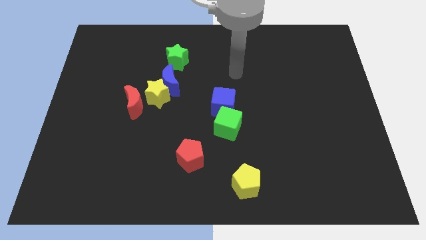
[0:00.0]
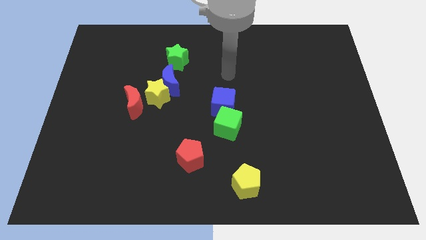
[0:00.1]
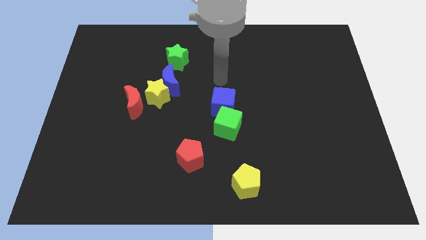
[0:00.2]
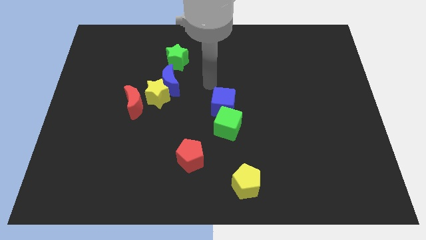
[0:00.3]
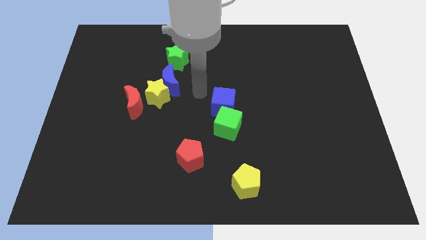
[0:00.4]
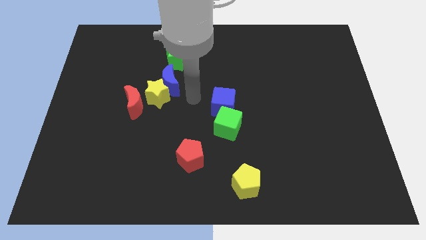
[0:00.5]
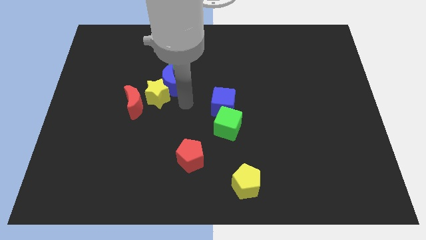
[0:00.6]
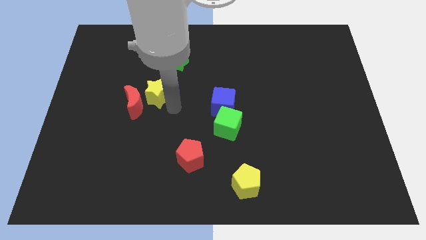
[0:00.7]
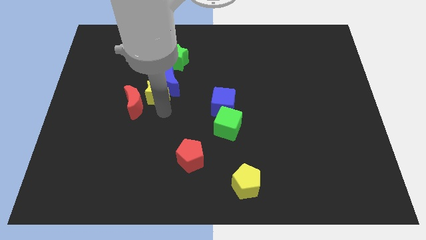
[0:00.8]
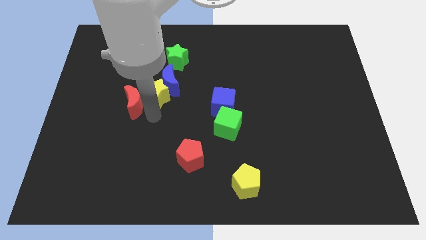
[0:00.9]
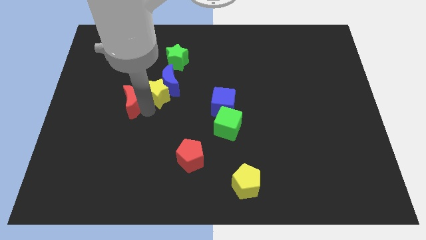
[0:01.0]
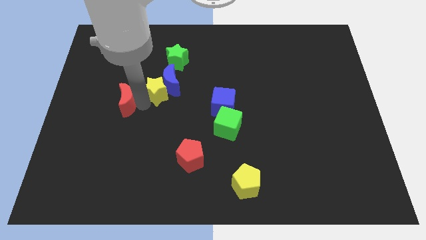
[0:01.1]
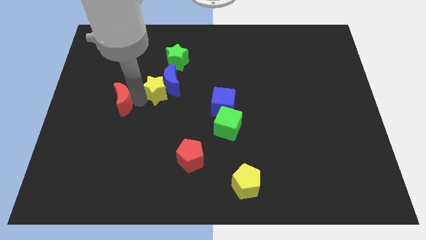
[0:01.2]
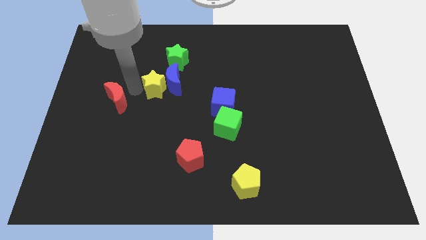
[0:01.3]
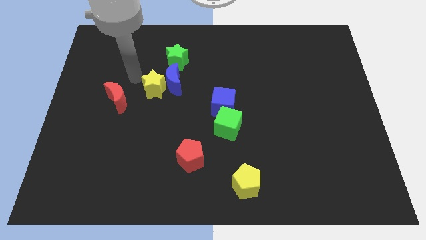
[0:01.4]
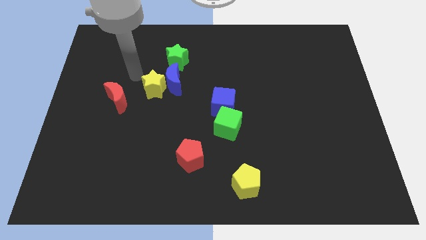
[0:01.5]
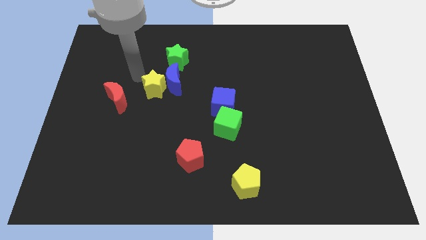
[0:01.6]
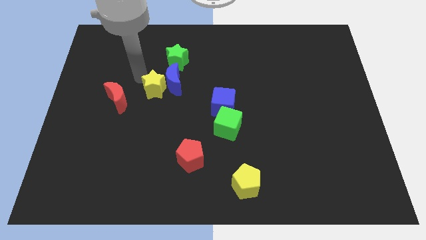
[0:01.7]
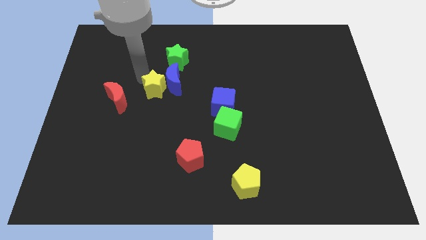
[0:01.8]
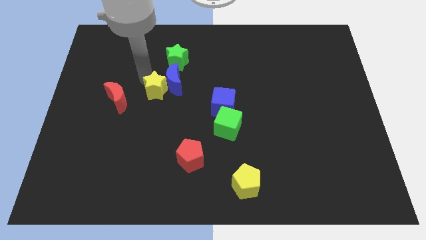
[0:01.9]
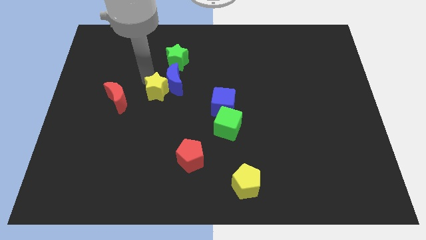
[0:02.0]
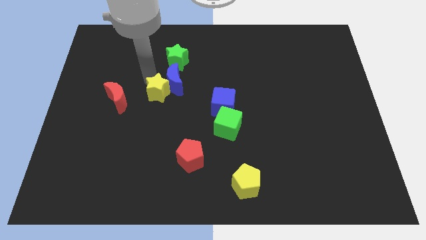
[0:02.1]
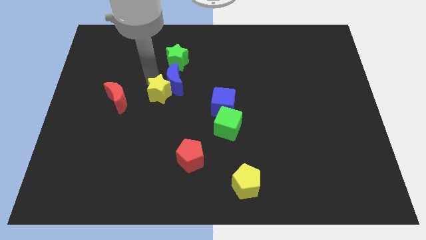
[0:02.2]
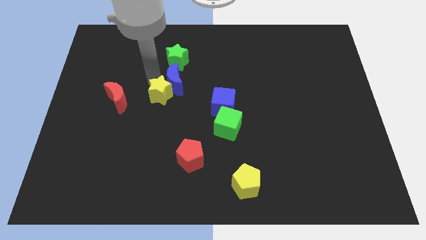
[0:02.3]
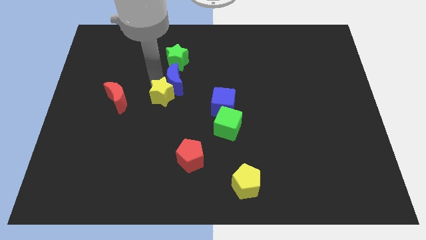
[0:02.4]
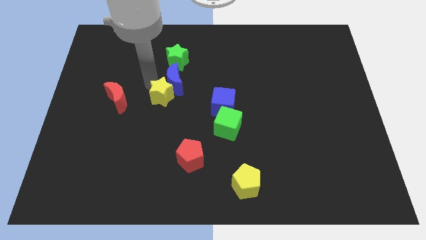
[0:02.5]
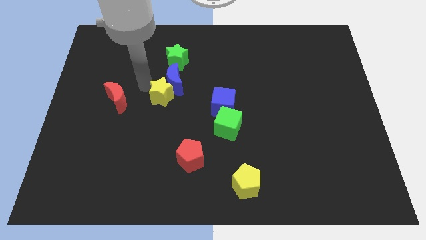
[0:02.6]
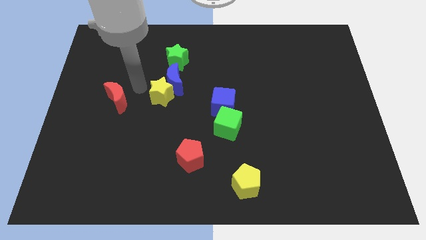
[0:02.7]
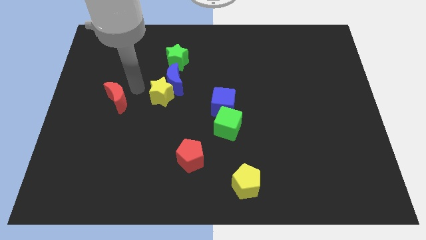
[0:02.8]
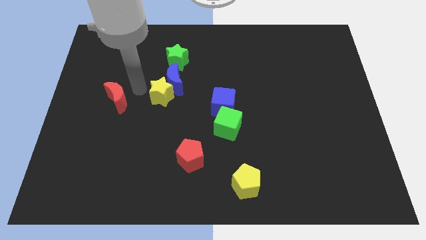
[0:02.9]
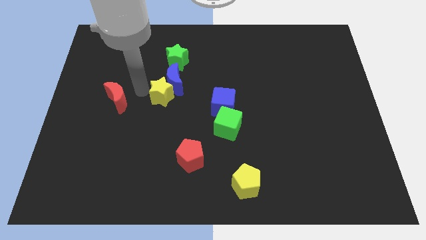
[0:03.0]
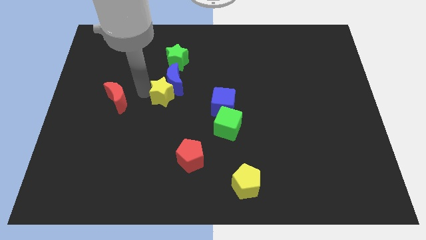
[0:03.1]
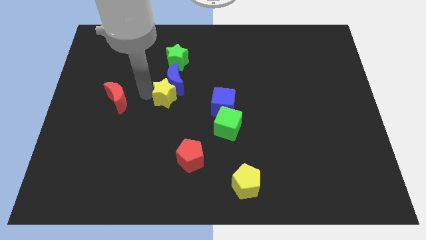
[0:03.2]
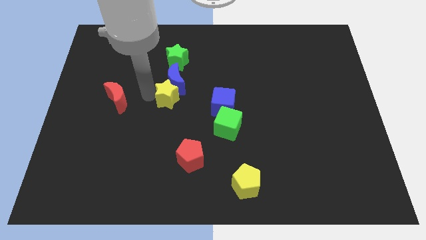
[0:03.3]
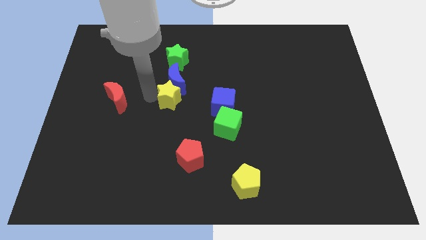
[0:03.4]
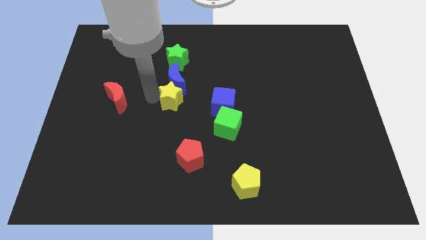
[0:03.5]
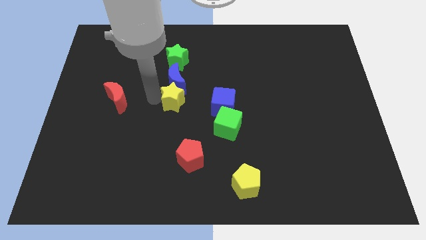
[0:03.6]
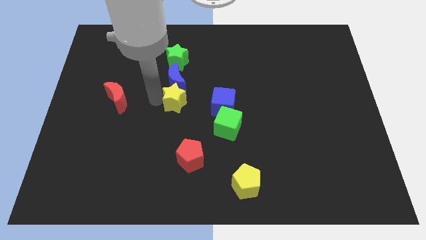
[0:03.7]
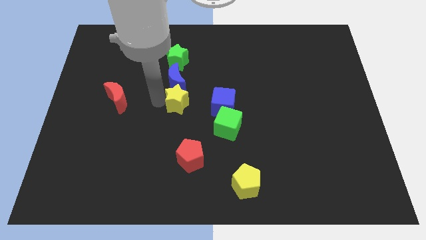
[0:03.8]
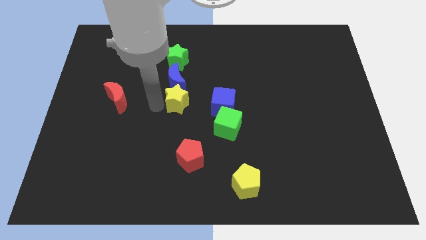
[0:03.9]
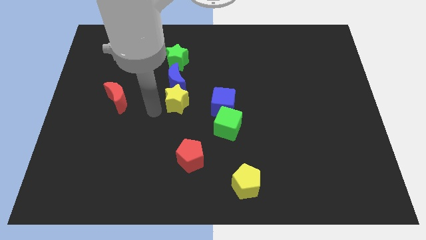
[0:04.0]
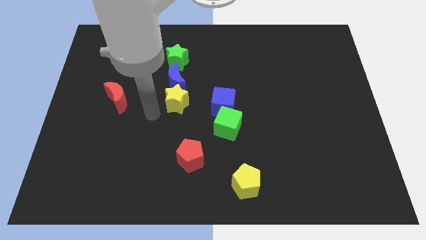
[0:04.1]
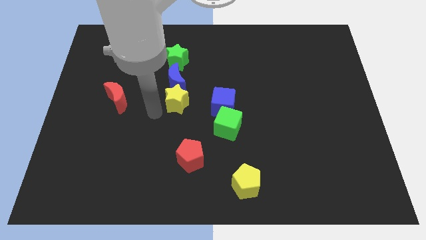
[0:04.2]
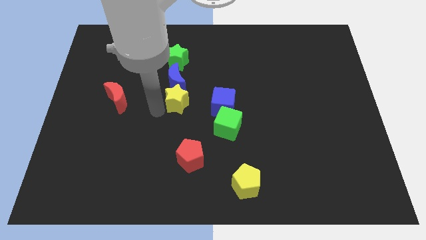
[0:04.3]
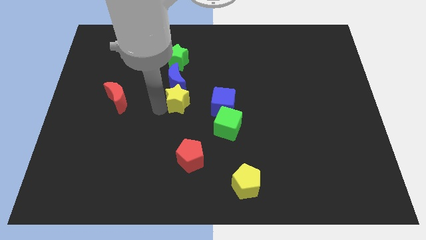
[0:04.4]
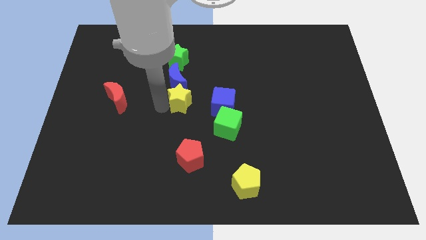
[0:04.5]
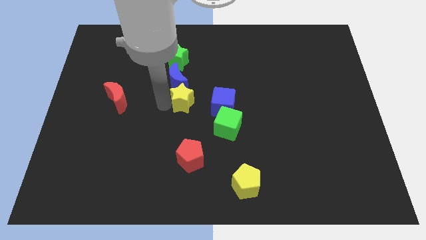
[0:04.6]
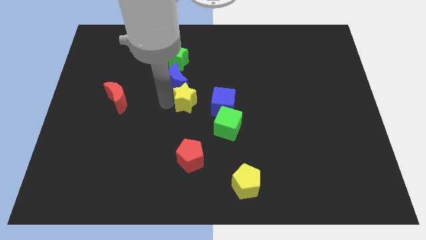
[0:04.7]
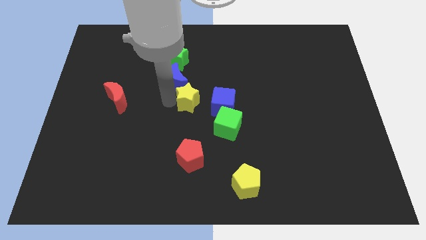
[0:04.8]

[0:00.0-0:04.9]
put the yellow star to the top left side of the blue cube

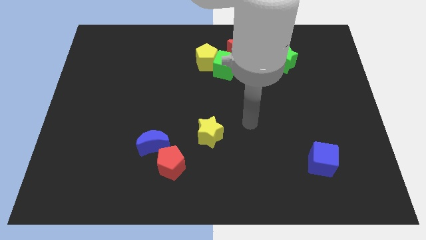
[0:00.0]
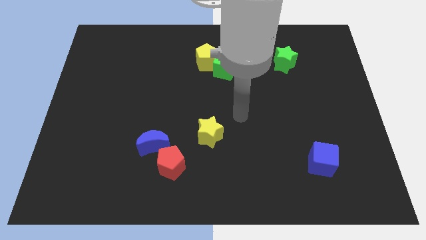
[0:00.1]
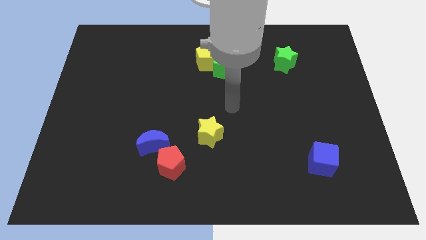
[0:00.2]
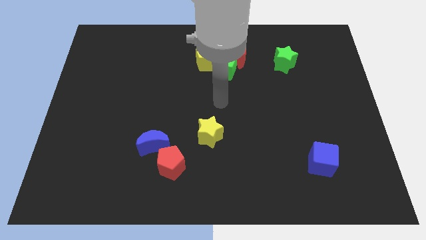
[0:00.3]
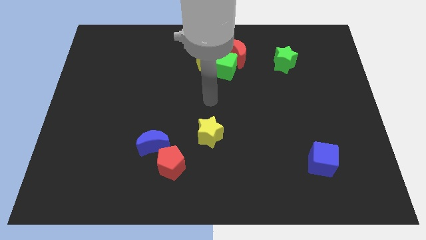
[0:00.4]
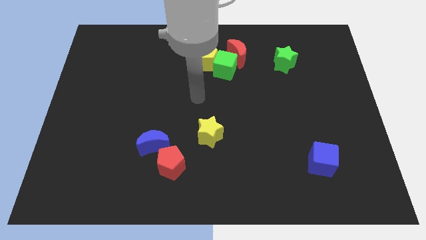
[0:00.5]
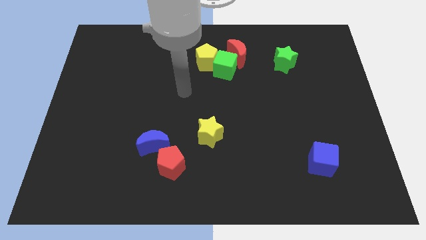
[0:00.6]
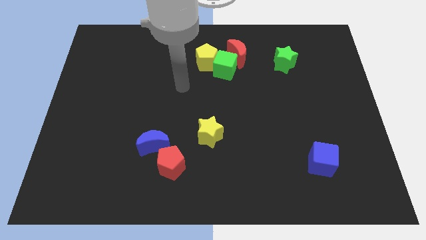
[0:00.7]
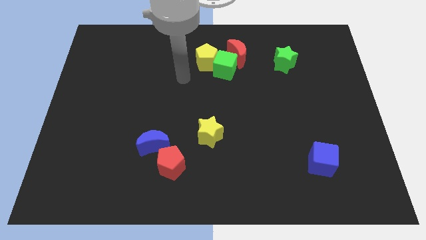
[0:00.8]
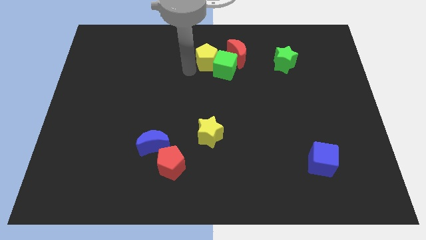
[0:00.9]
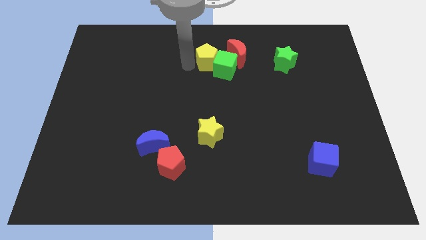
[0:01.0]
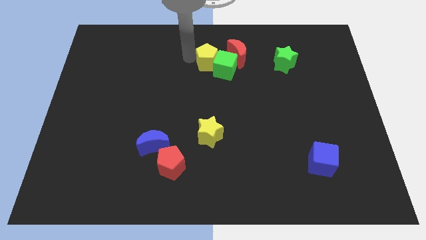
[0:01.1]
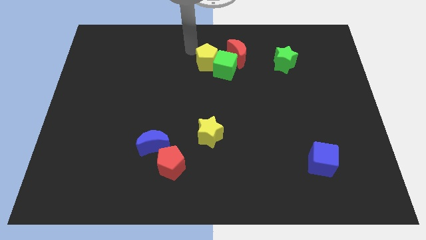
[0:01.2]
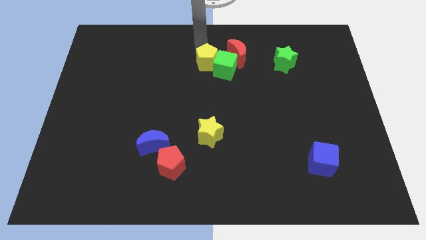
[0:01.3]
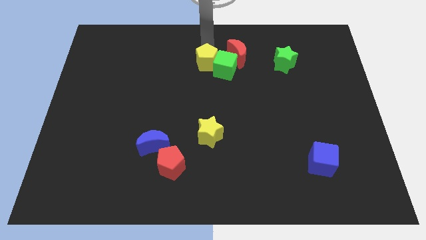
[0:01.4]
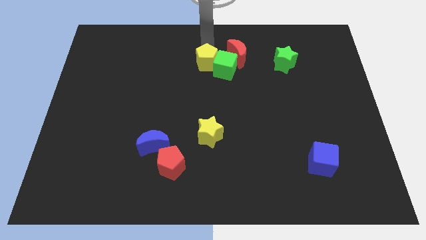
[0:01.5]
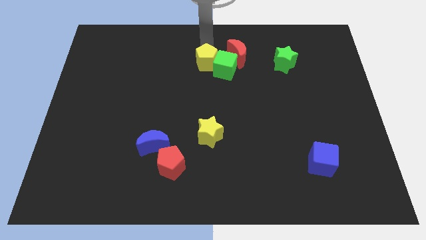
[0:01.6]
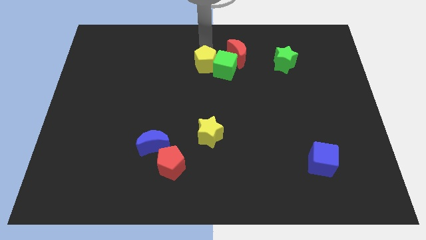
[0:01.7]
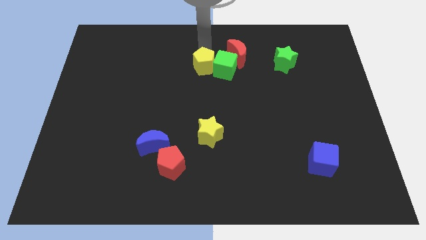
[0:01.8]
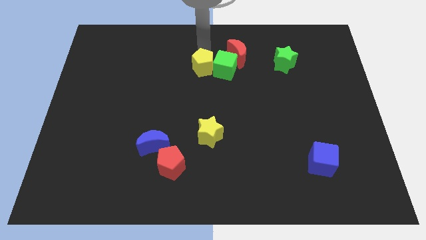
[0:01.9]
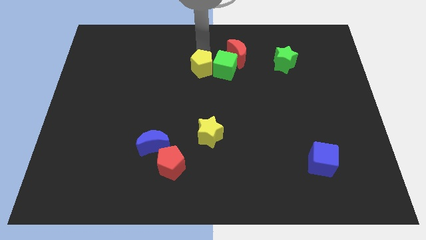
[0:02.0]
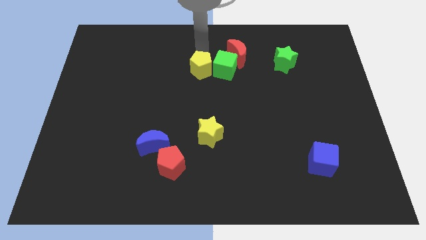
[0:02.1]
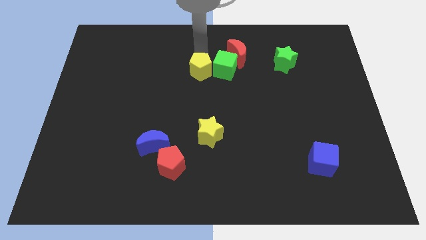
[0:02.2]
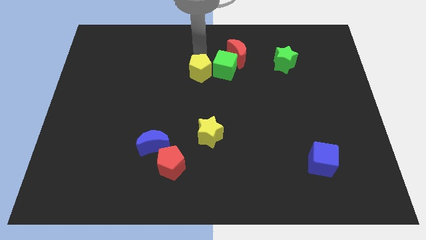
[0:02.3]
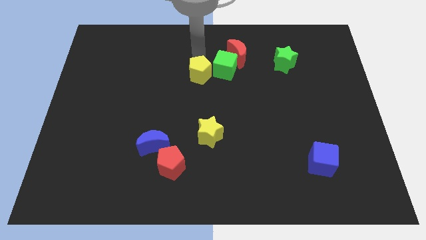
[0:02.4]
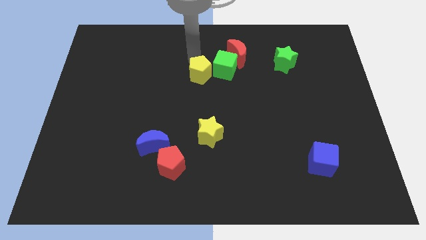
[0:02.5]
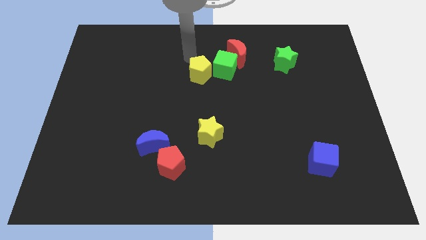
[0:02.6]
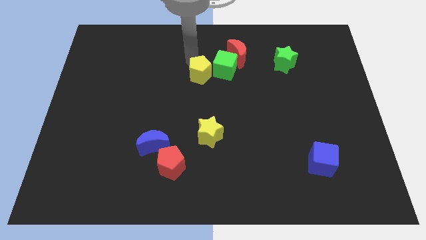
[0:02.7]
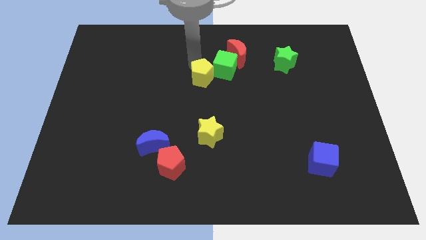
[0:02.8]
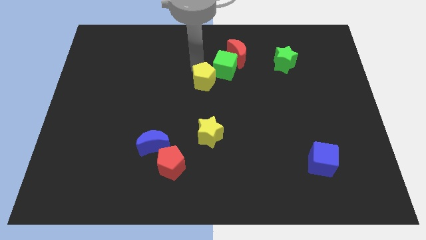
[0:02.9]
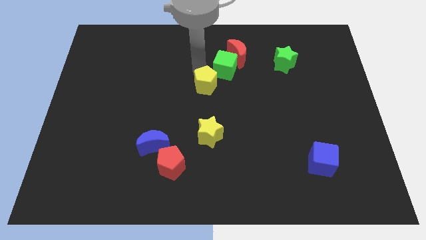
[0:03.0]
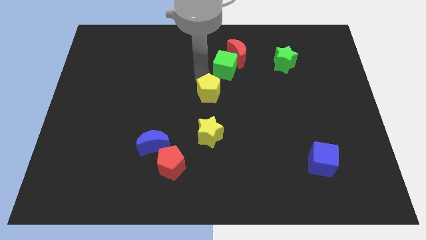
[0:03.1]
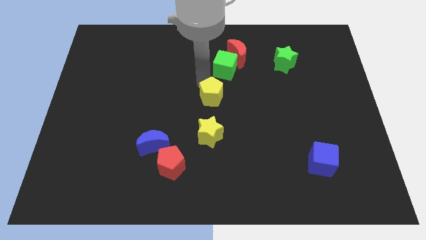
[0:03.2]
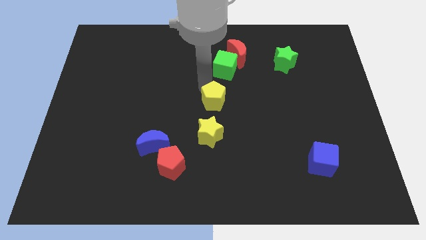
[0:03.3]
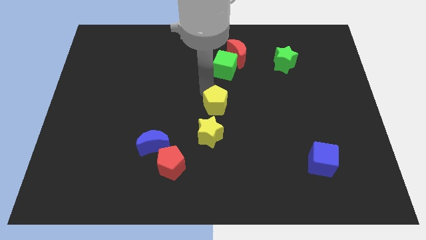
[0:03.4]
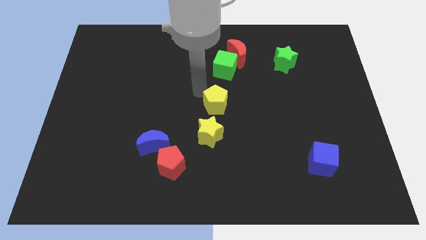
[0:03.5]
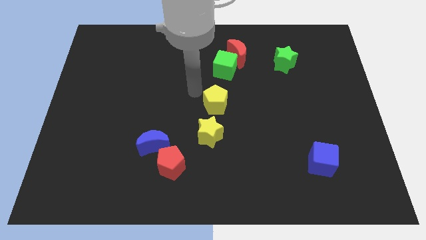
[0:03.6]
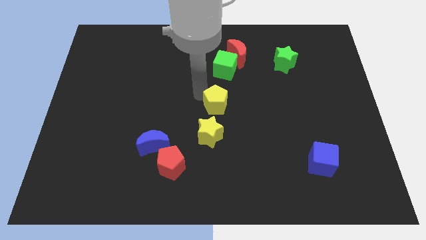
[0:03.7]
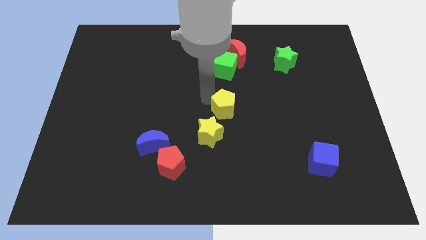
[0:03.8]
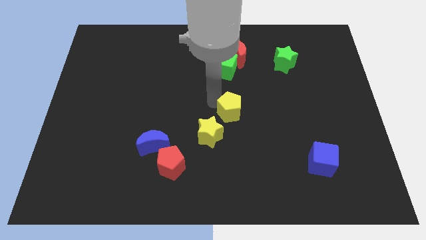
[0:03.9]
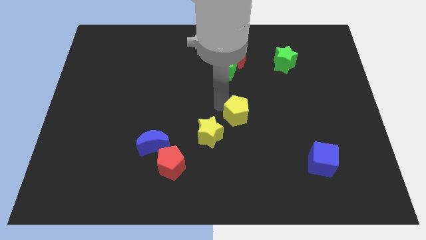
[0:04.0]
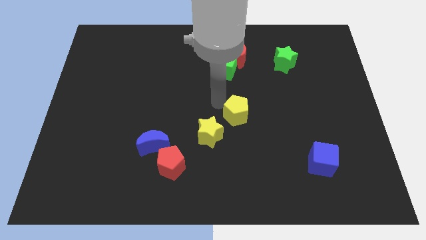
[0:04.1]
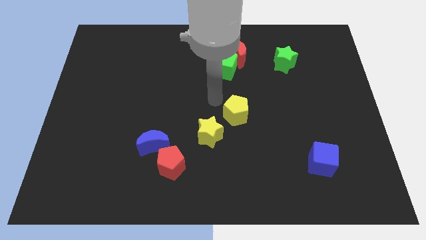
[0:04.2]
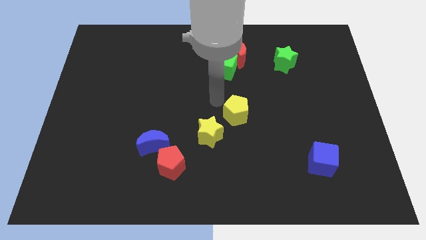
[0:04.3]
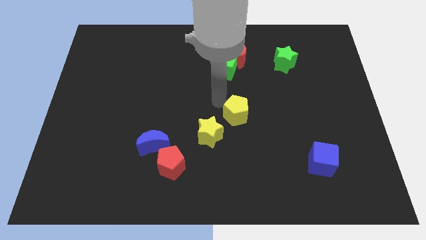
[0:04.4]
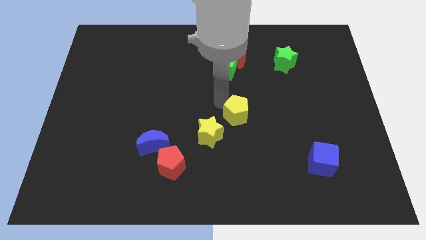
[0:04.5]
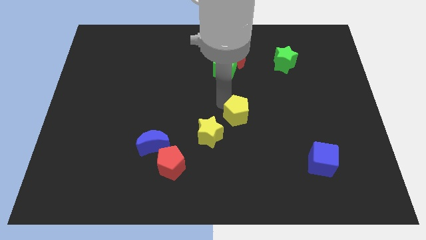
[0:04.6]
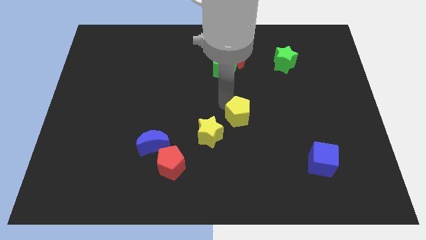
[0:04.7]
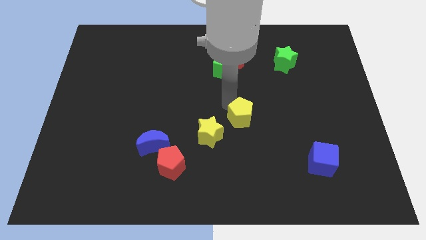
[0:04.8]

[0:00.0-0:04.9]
slide the yellow pentagon to the right of the yellow star
